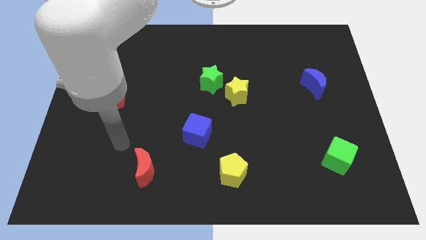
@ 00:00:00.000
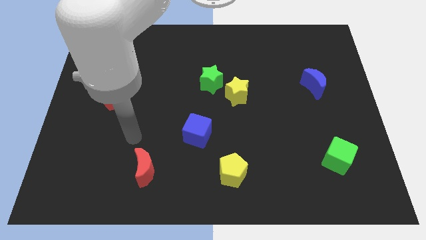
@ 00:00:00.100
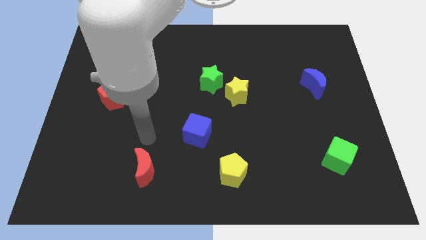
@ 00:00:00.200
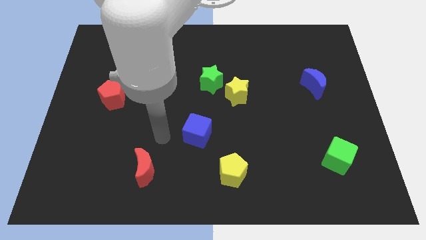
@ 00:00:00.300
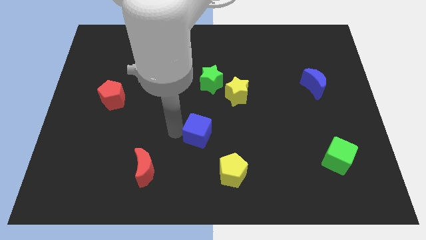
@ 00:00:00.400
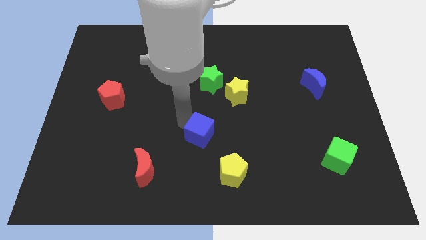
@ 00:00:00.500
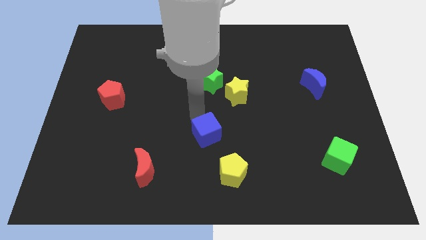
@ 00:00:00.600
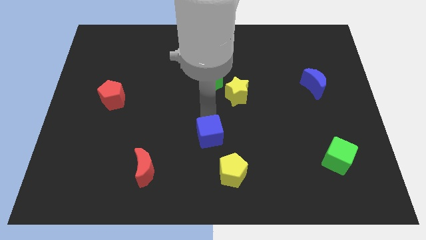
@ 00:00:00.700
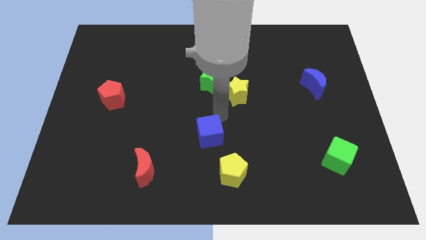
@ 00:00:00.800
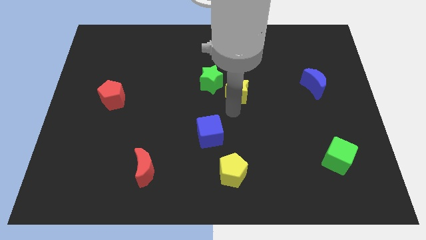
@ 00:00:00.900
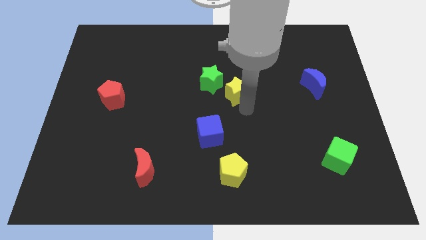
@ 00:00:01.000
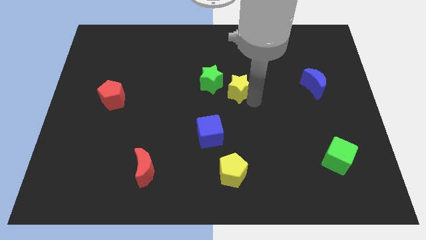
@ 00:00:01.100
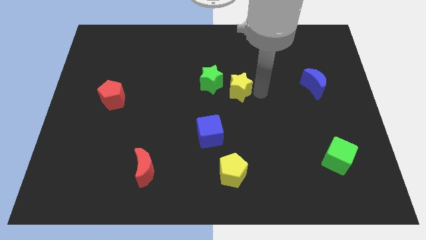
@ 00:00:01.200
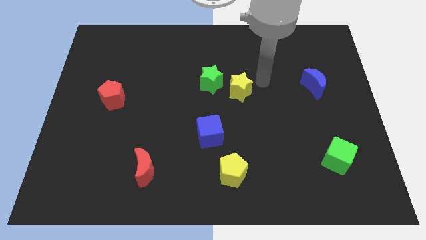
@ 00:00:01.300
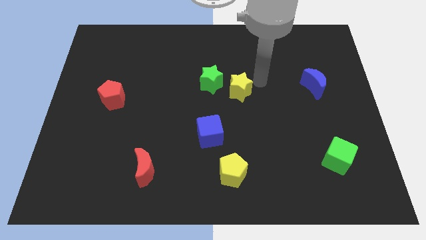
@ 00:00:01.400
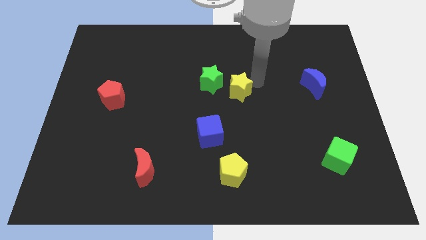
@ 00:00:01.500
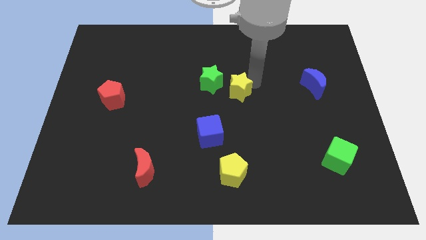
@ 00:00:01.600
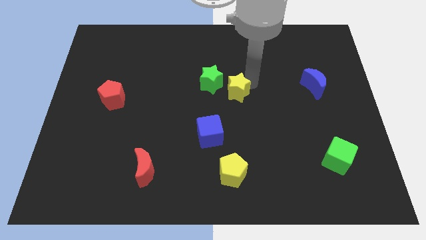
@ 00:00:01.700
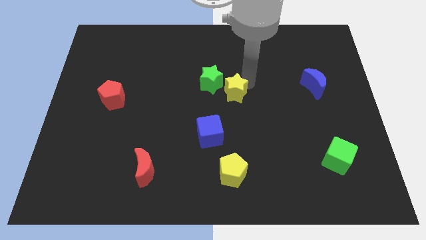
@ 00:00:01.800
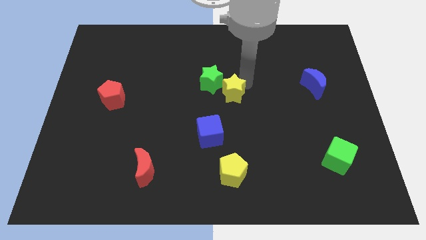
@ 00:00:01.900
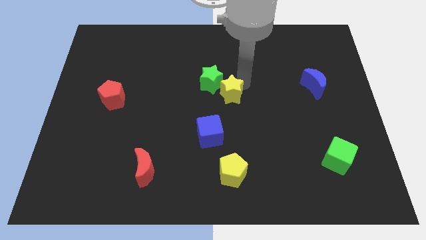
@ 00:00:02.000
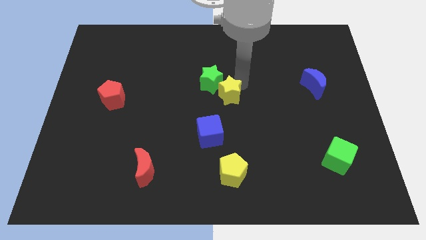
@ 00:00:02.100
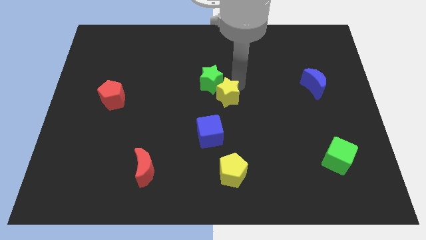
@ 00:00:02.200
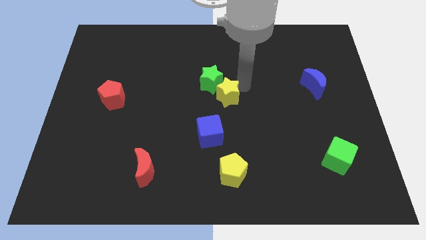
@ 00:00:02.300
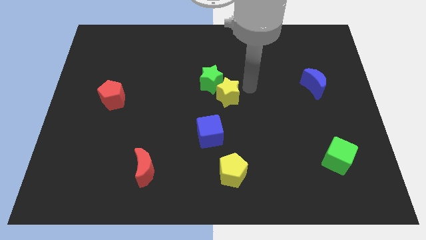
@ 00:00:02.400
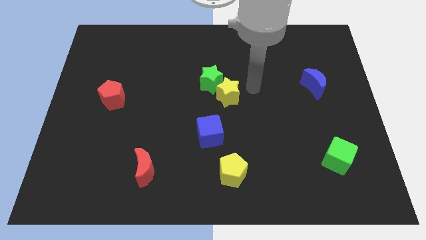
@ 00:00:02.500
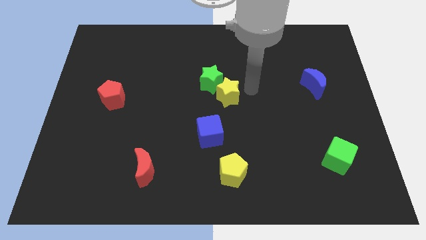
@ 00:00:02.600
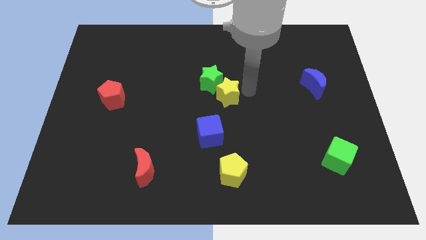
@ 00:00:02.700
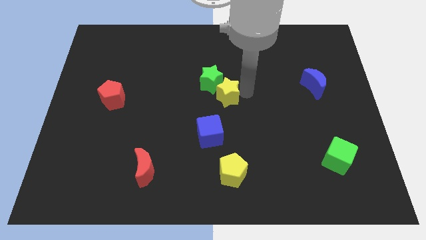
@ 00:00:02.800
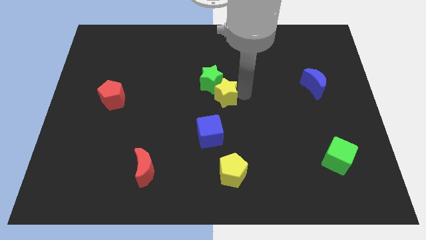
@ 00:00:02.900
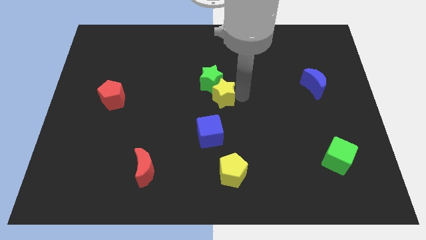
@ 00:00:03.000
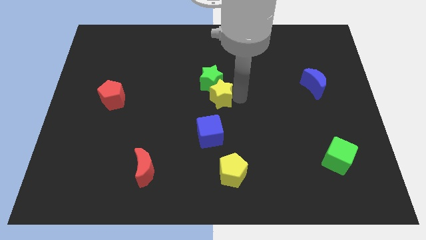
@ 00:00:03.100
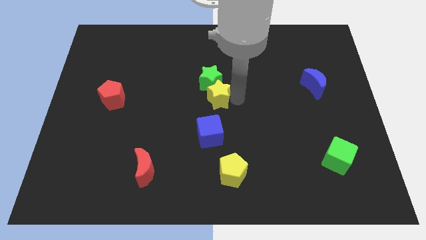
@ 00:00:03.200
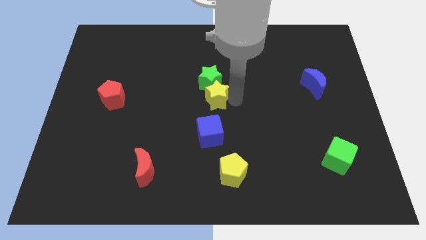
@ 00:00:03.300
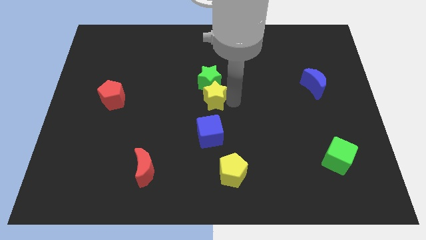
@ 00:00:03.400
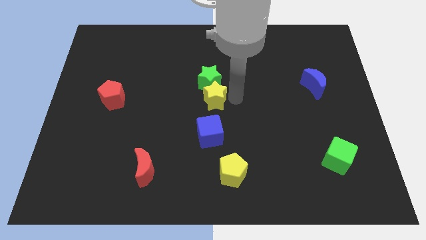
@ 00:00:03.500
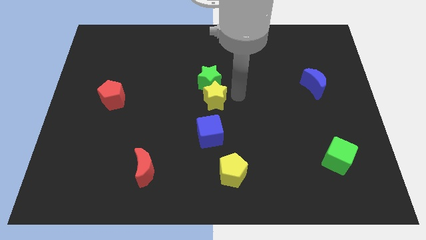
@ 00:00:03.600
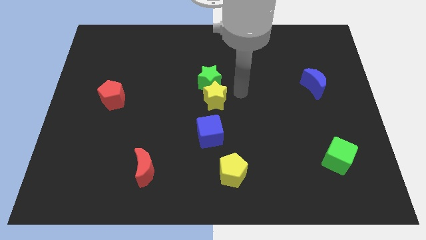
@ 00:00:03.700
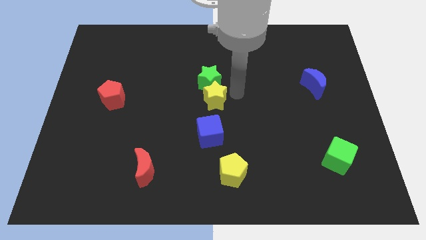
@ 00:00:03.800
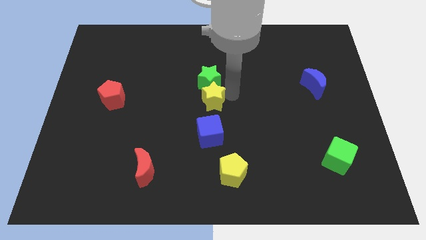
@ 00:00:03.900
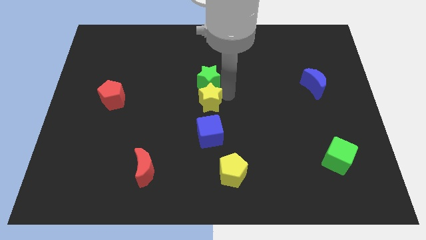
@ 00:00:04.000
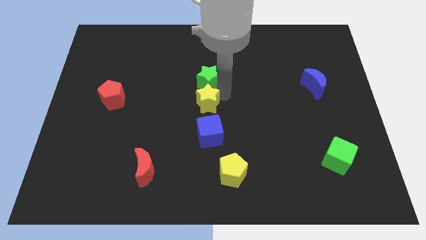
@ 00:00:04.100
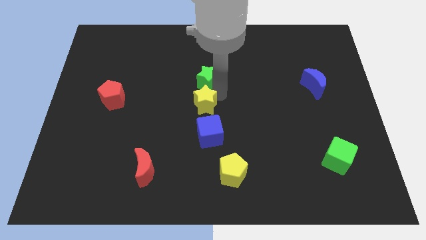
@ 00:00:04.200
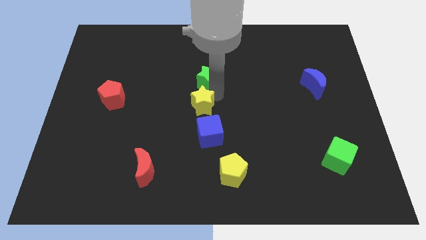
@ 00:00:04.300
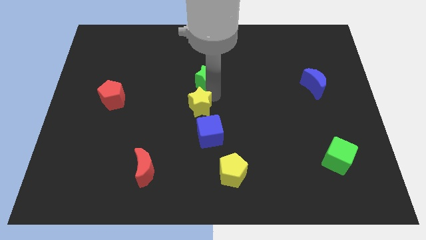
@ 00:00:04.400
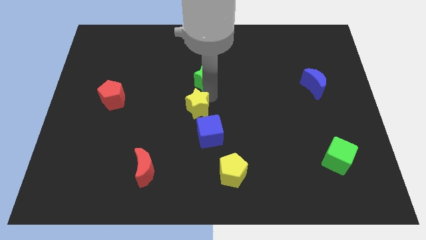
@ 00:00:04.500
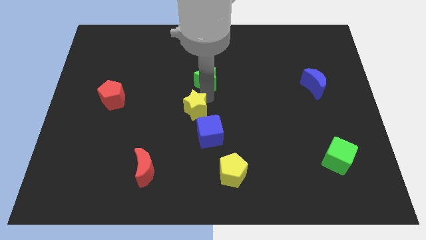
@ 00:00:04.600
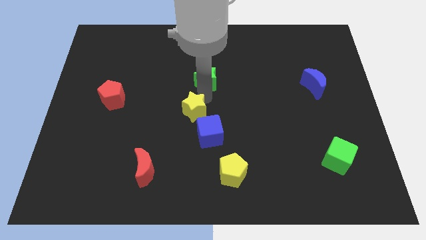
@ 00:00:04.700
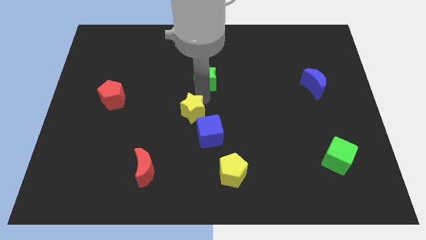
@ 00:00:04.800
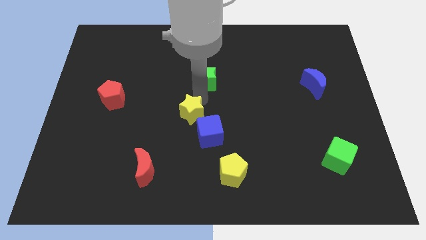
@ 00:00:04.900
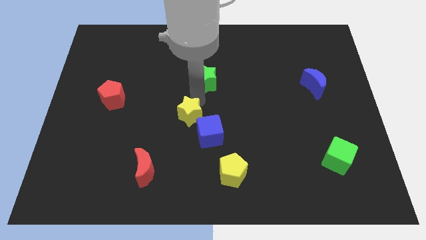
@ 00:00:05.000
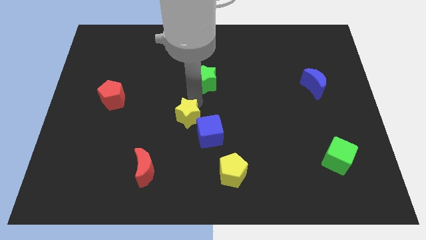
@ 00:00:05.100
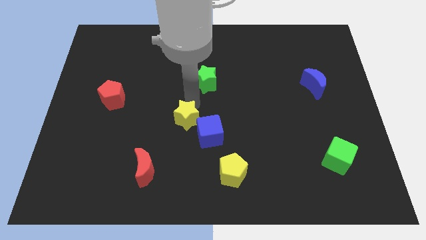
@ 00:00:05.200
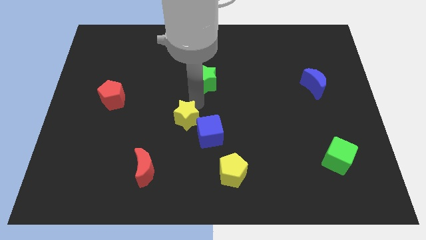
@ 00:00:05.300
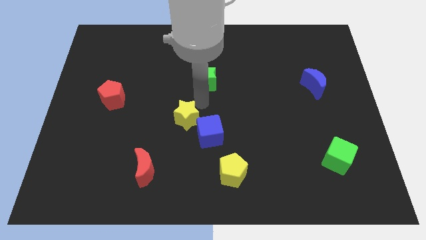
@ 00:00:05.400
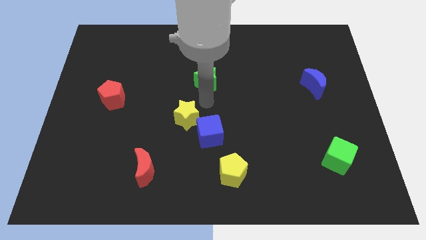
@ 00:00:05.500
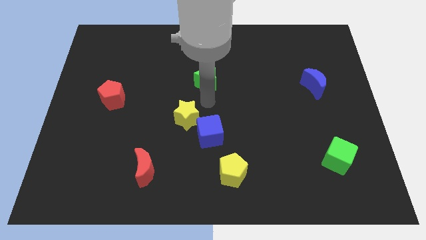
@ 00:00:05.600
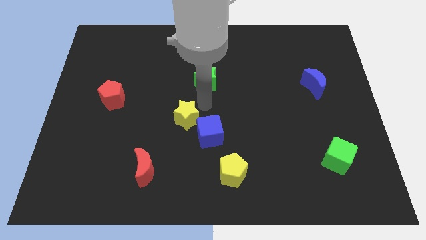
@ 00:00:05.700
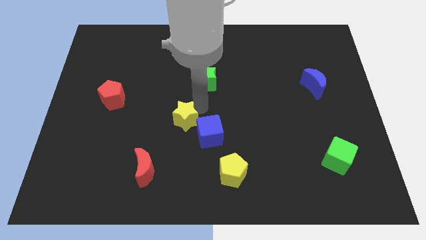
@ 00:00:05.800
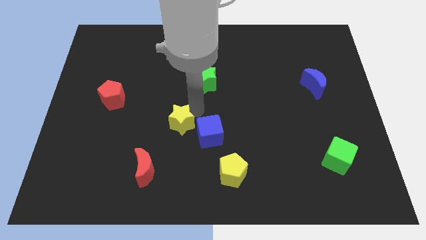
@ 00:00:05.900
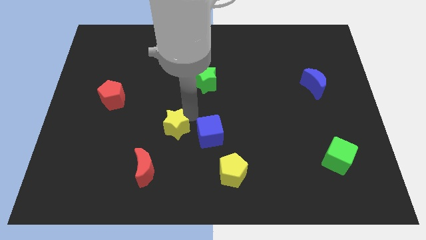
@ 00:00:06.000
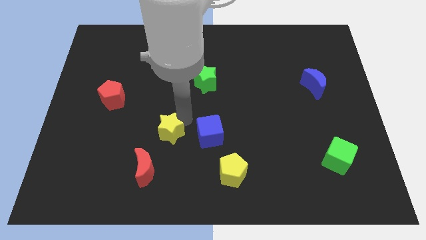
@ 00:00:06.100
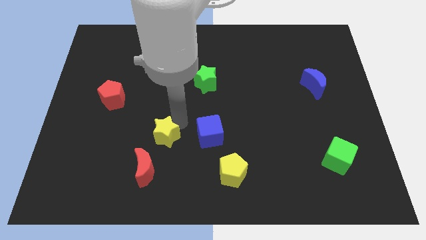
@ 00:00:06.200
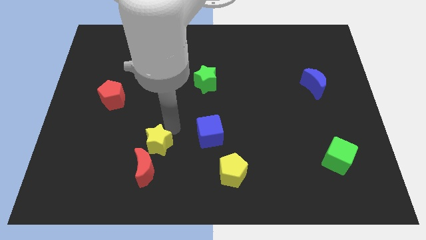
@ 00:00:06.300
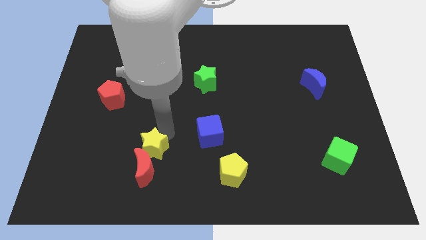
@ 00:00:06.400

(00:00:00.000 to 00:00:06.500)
slide the yellow star to the red moon
